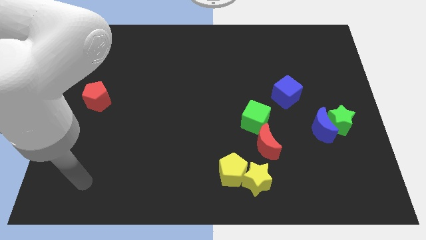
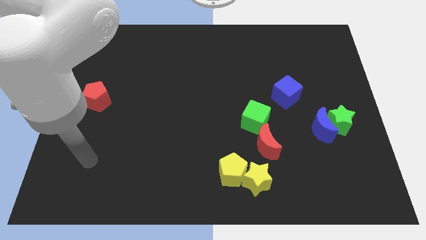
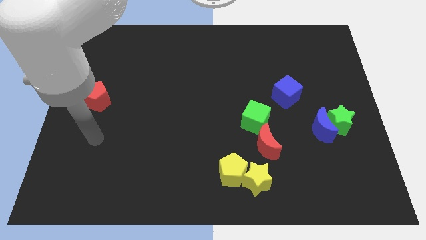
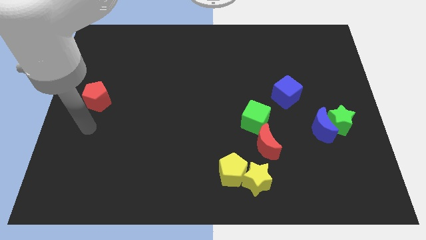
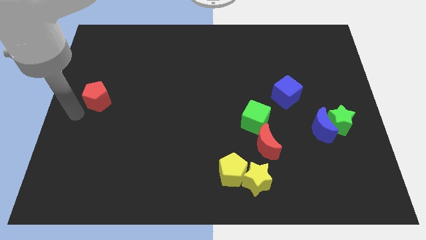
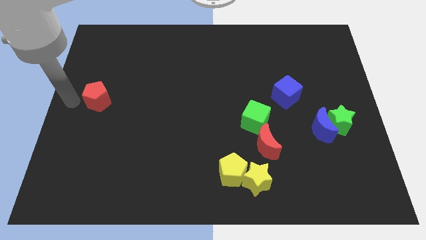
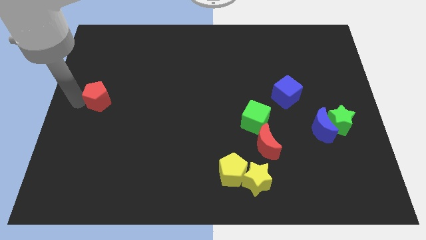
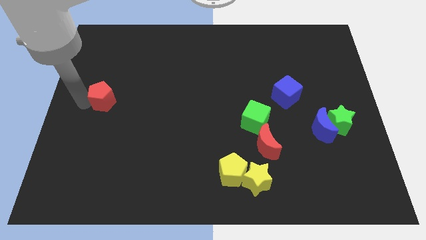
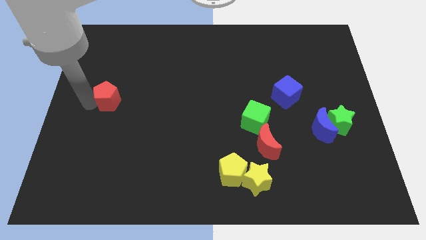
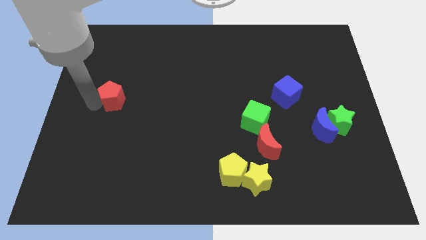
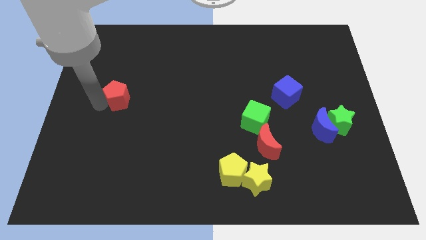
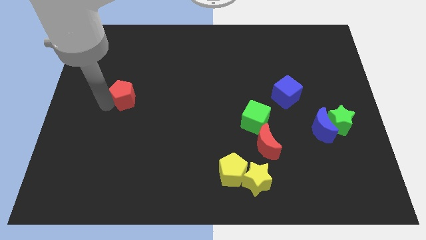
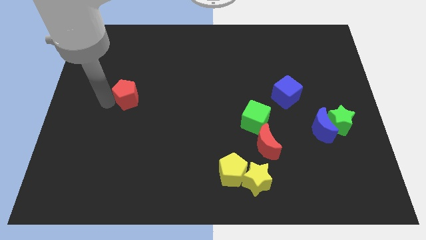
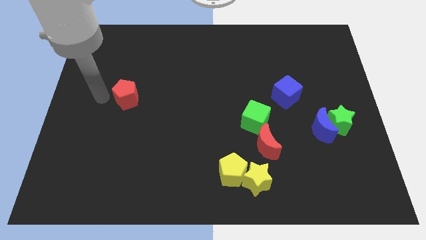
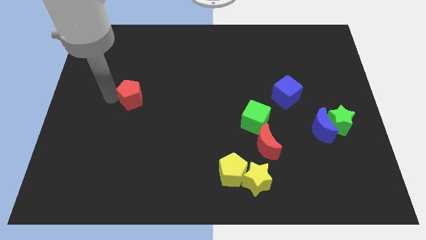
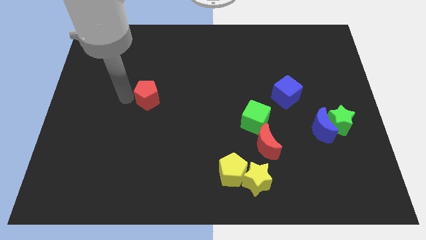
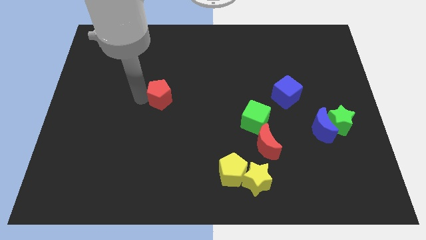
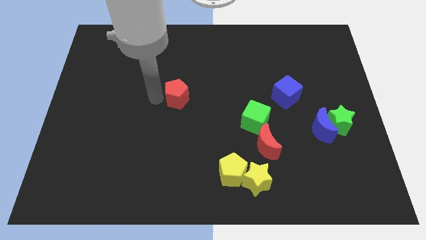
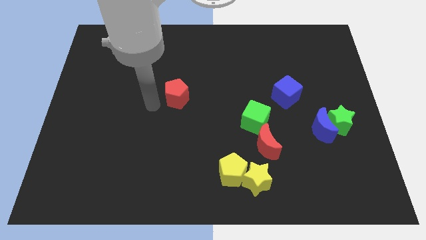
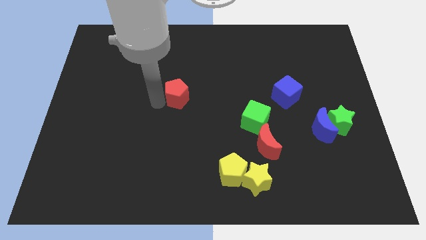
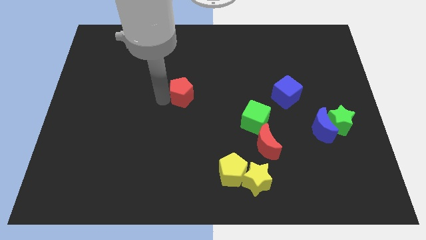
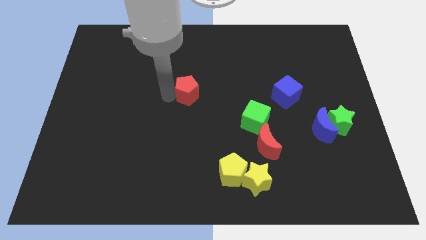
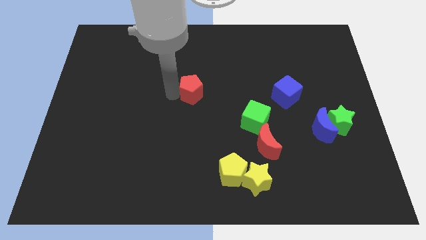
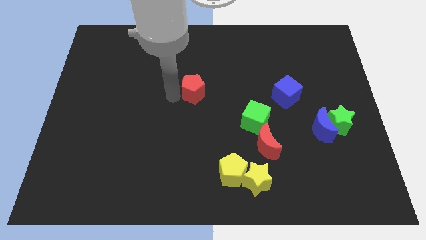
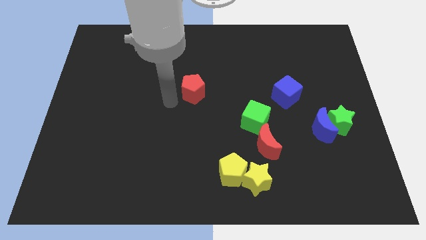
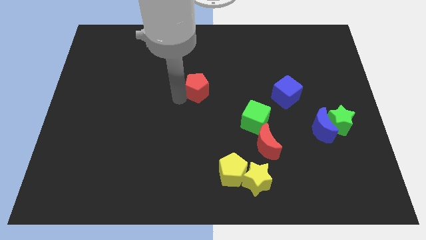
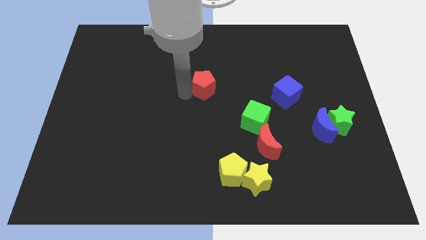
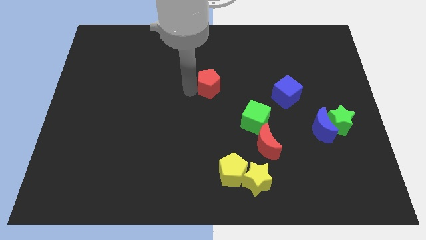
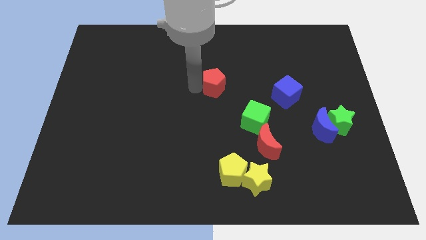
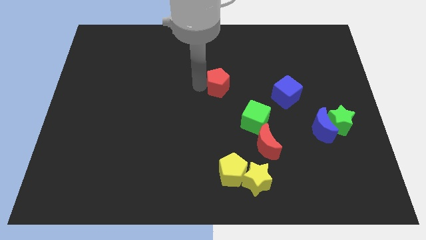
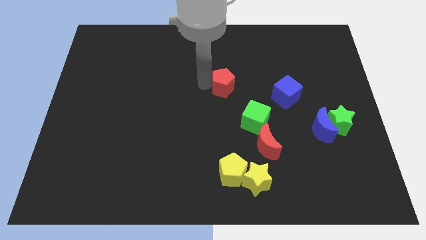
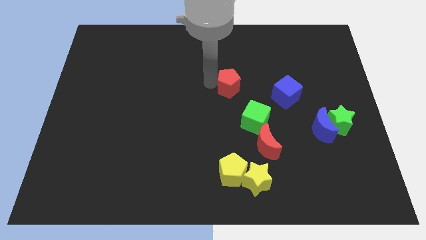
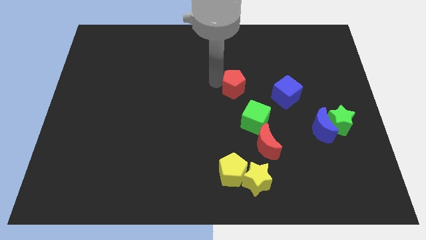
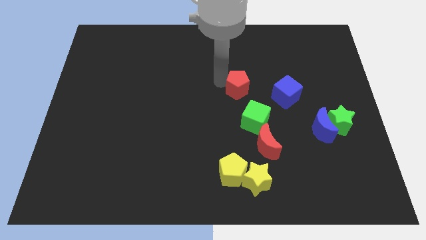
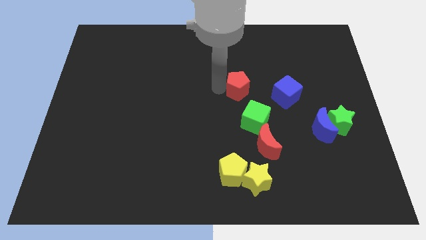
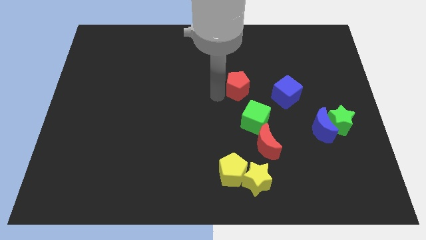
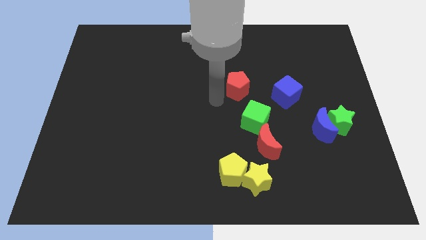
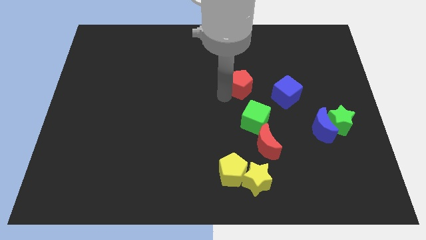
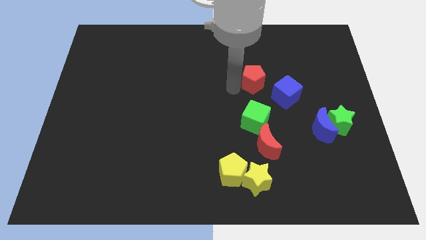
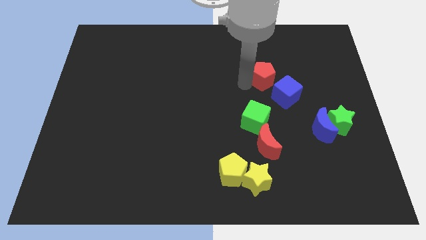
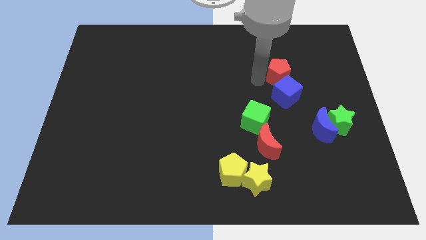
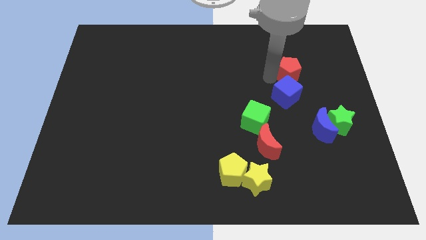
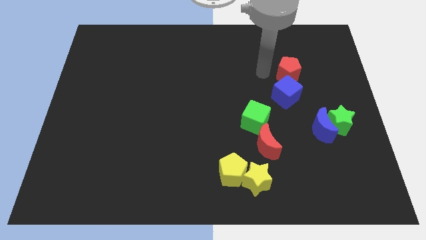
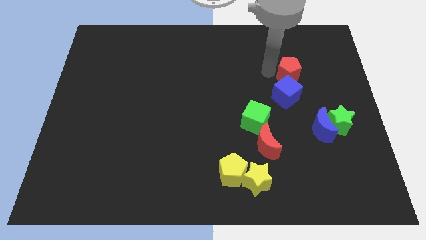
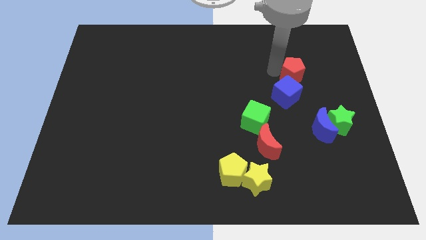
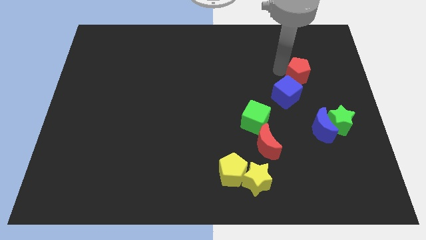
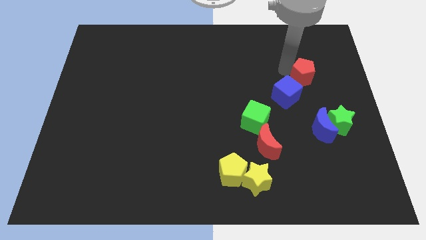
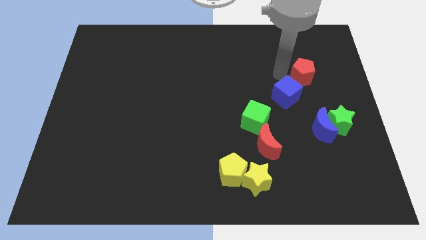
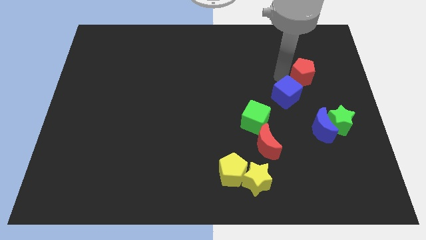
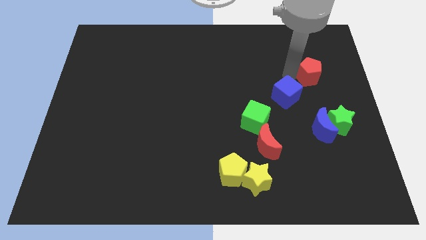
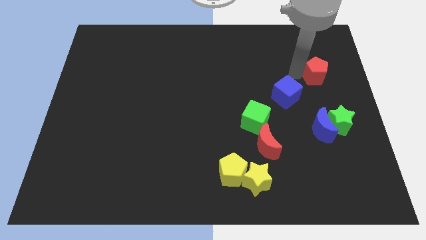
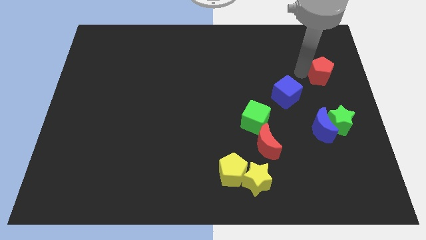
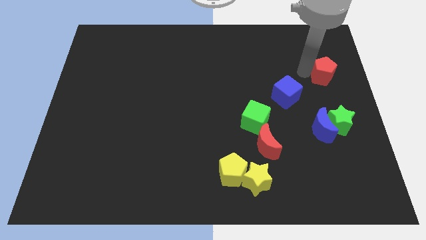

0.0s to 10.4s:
slide the red pentagon to the right side

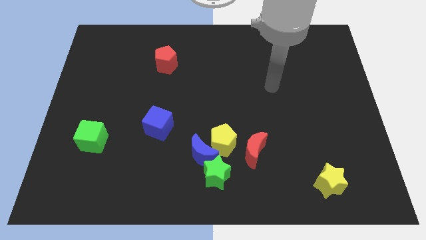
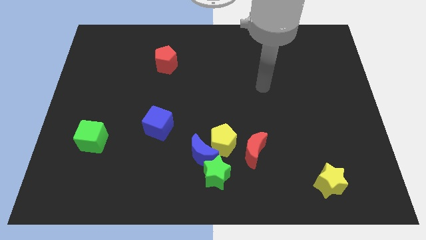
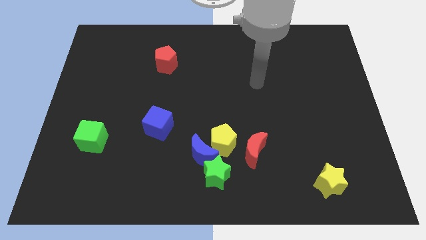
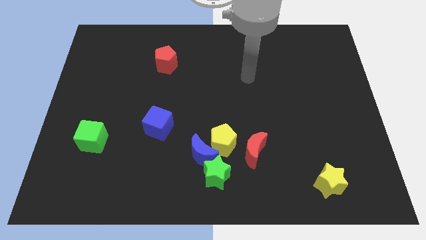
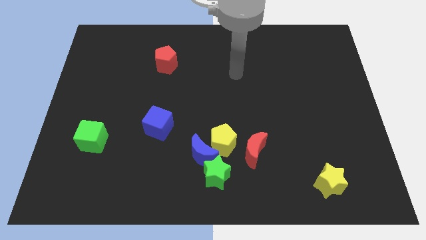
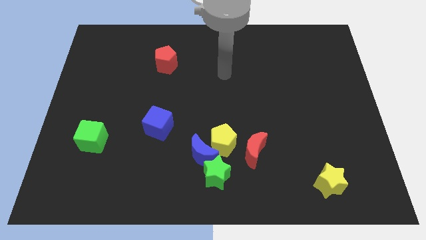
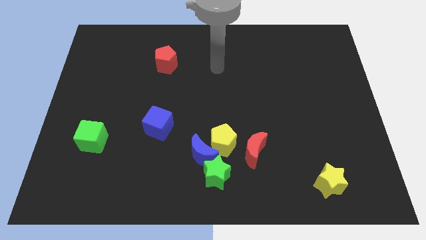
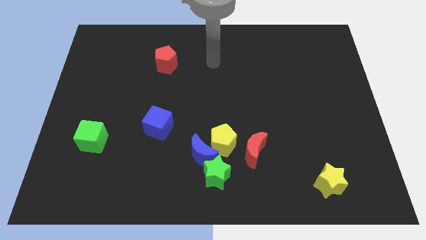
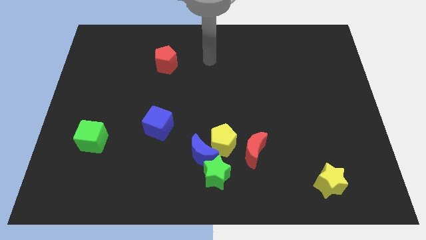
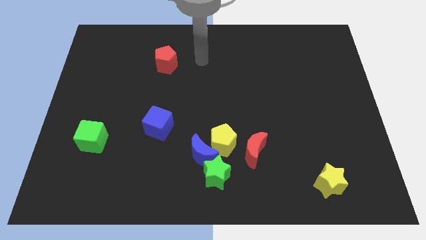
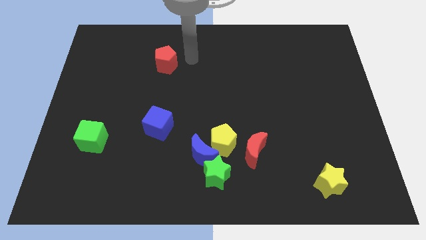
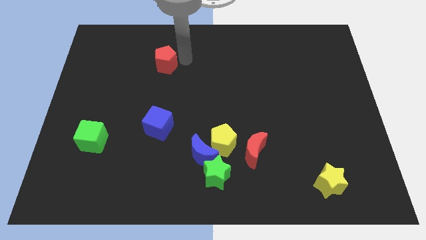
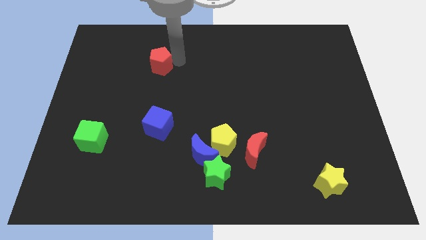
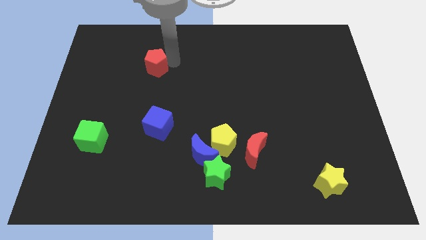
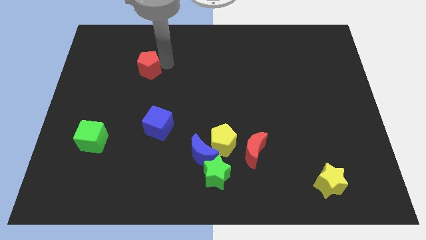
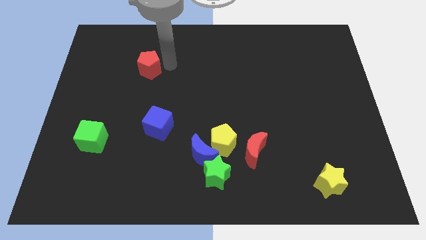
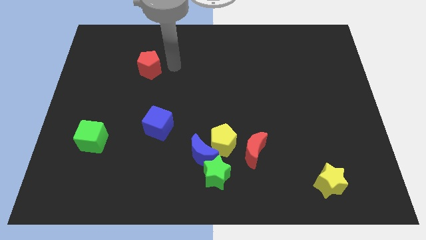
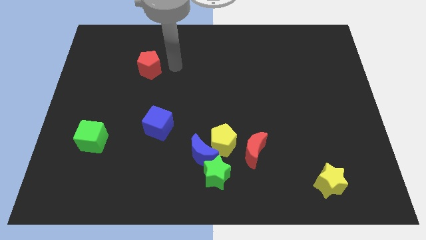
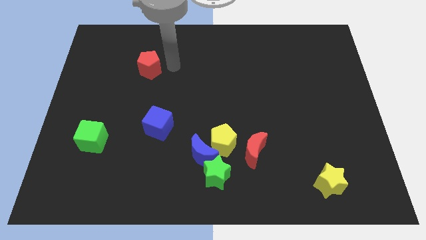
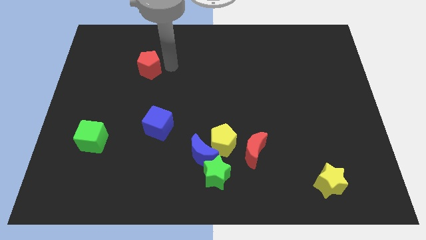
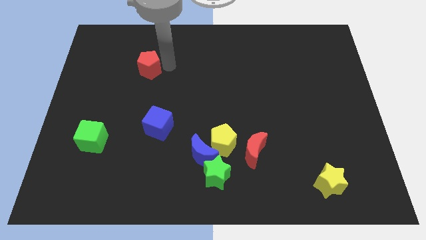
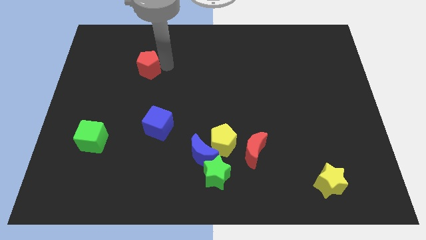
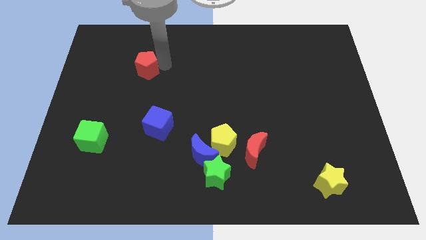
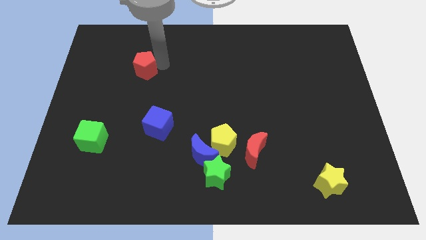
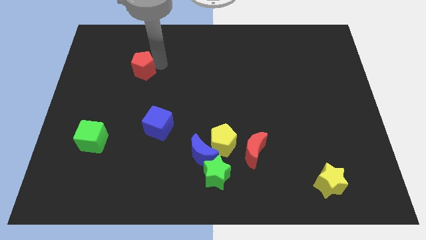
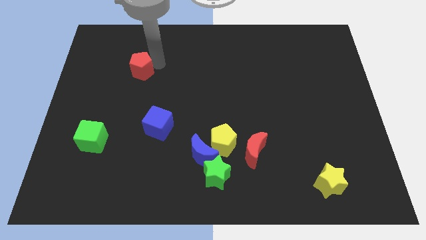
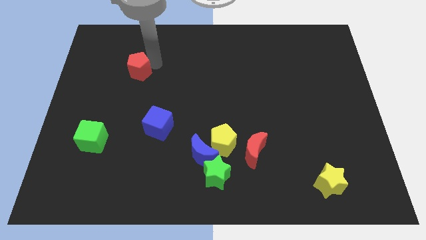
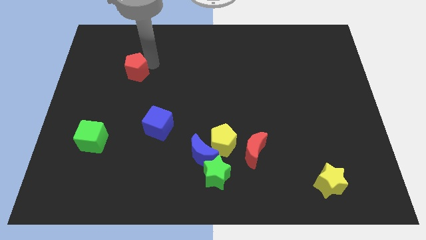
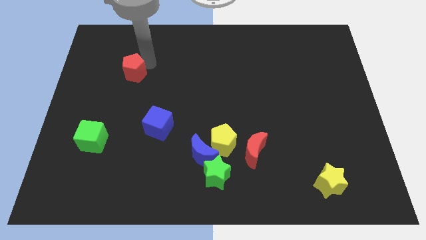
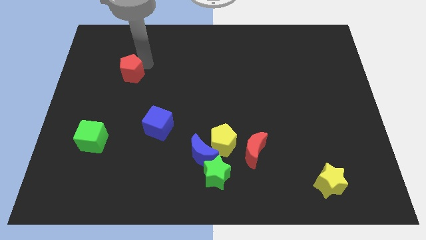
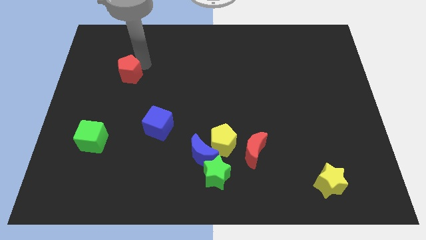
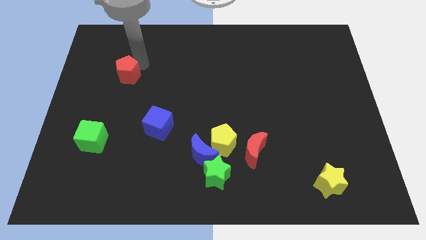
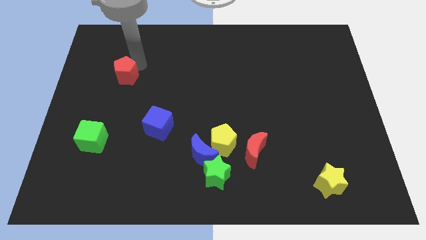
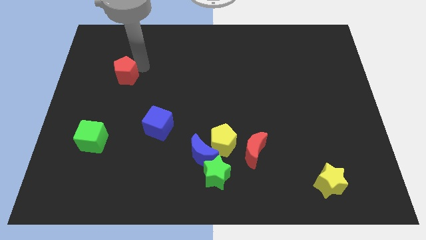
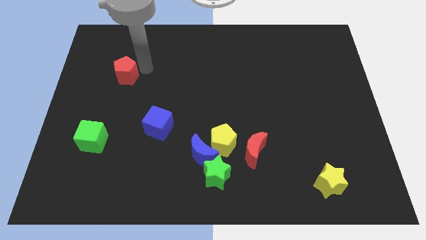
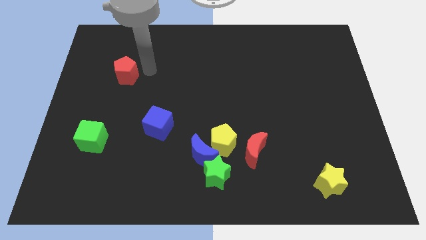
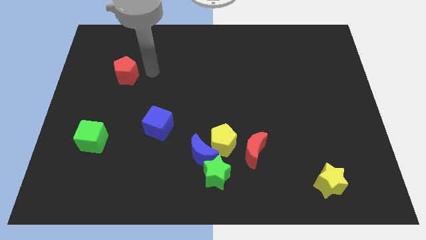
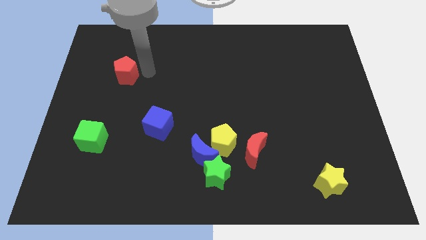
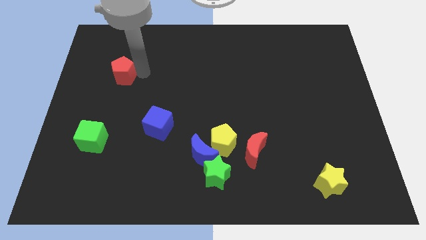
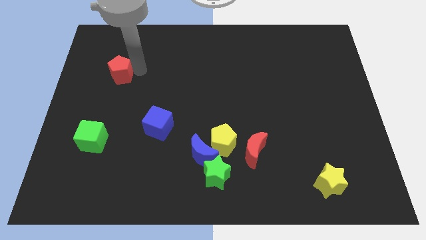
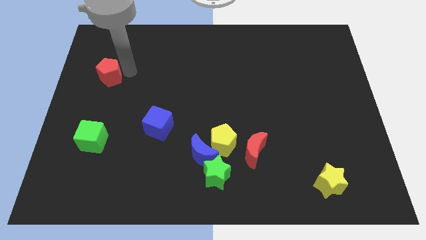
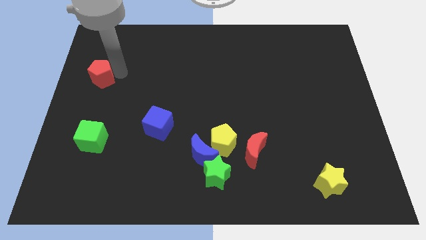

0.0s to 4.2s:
slide the red pentagon to the center left
